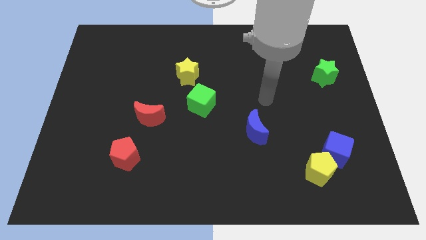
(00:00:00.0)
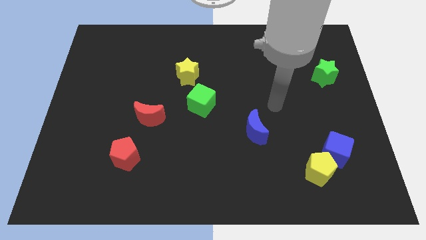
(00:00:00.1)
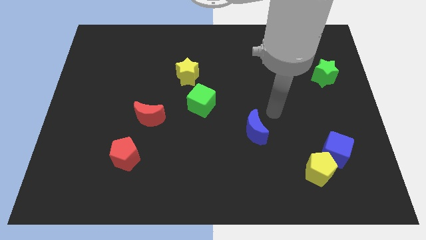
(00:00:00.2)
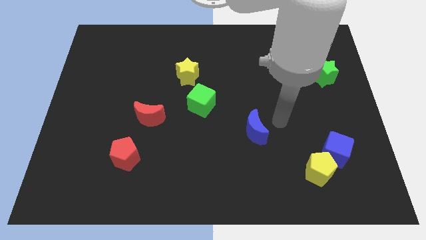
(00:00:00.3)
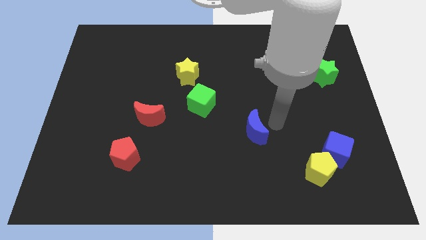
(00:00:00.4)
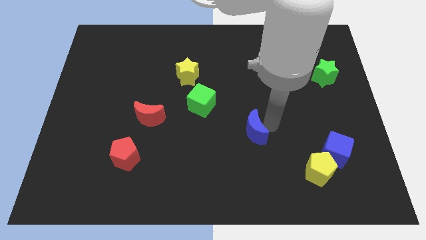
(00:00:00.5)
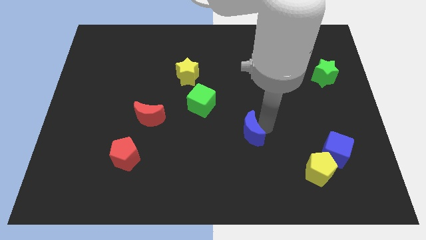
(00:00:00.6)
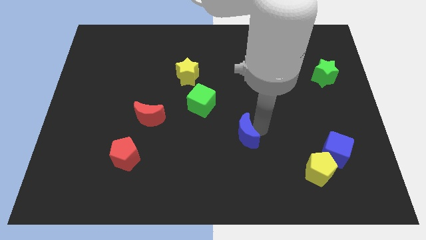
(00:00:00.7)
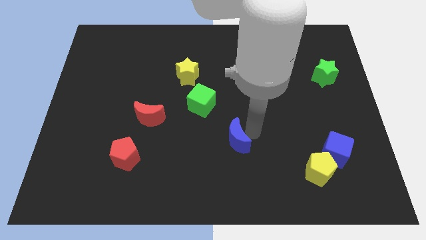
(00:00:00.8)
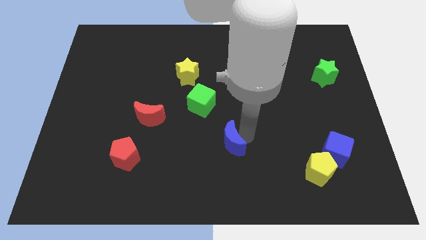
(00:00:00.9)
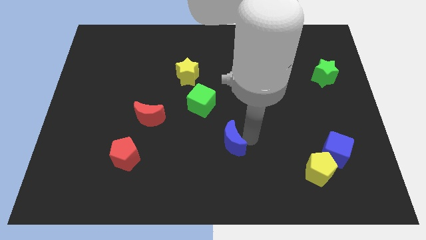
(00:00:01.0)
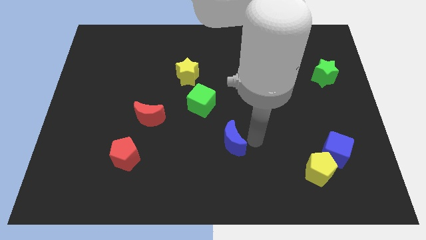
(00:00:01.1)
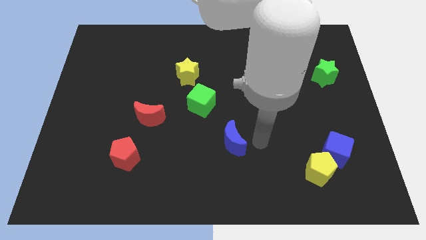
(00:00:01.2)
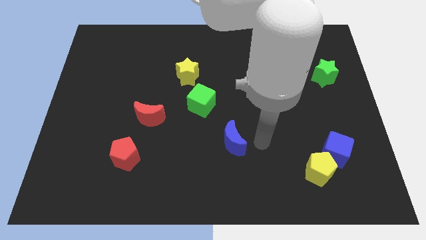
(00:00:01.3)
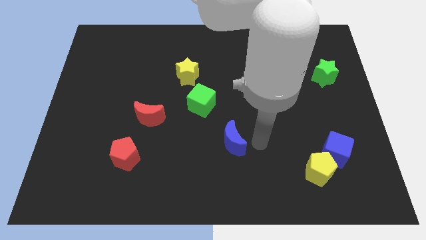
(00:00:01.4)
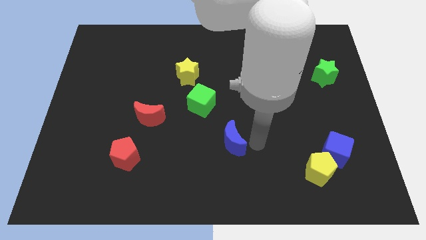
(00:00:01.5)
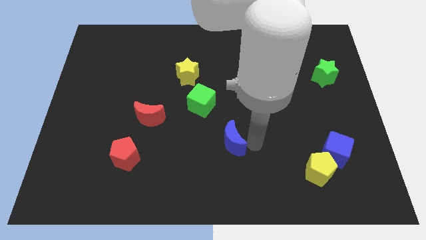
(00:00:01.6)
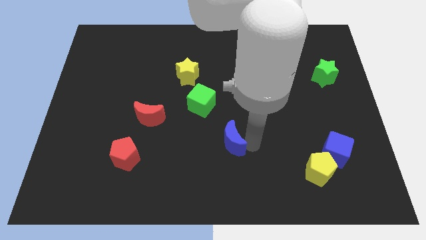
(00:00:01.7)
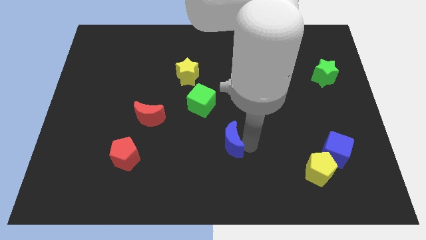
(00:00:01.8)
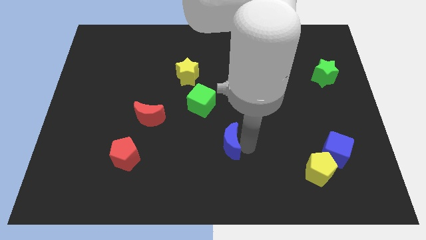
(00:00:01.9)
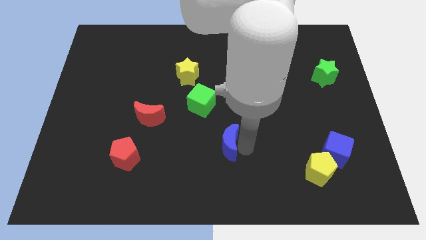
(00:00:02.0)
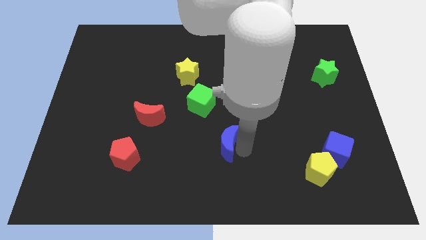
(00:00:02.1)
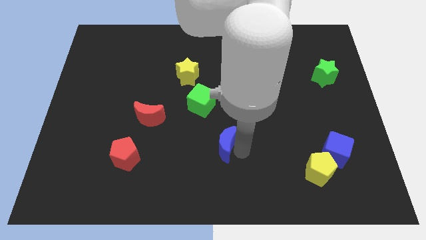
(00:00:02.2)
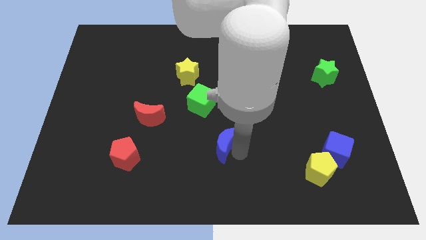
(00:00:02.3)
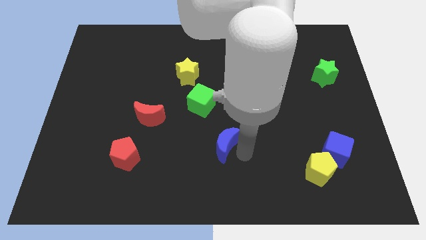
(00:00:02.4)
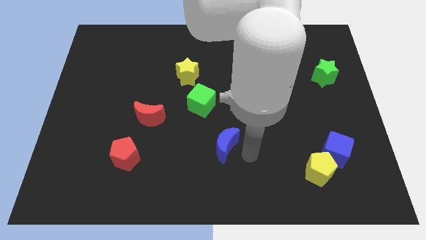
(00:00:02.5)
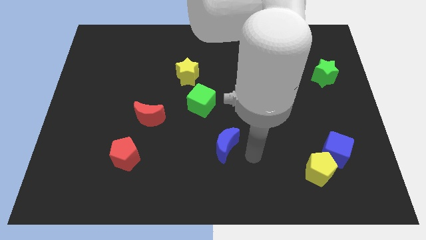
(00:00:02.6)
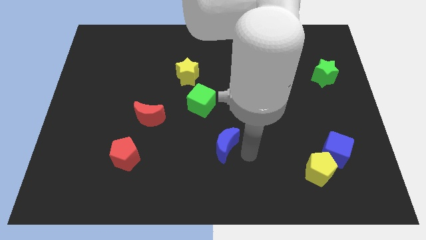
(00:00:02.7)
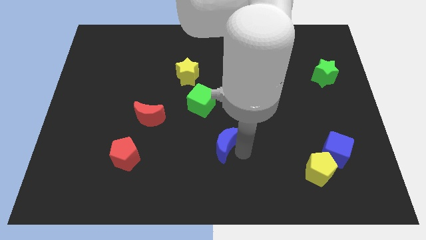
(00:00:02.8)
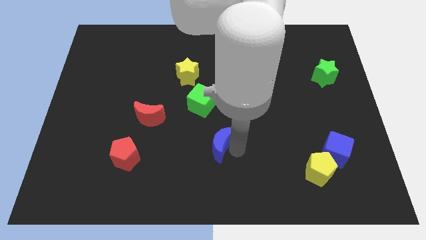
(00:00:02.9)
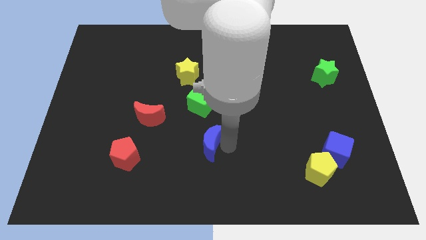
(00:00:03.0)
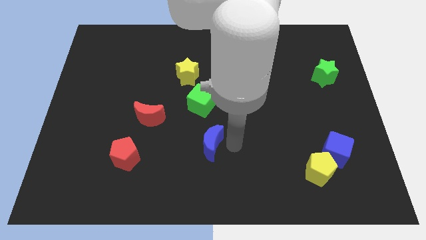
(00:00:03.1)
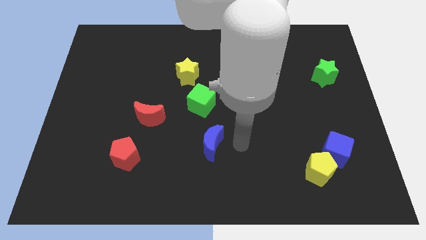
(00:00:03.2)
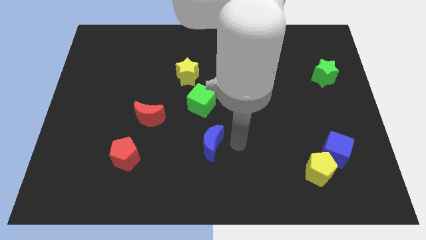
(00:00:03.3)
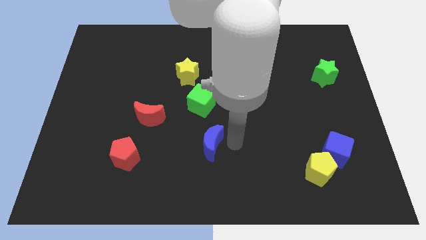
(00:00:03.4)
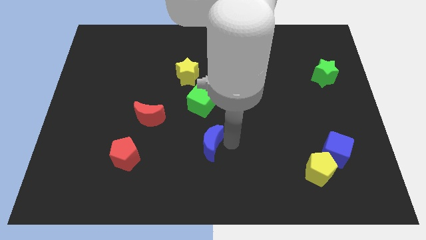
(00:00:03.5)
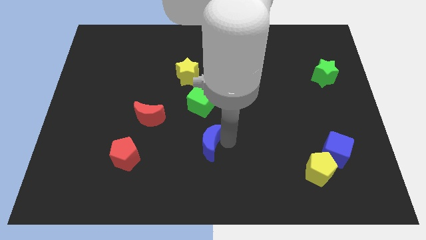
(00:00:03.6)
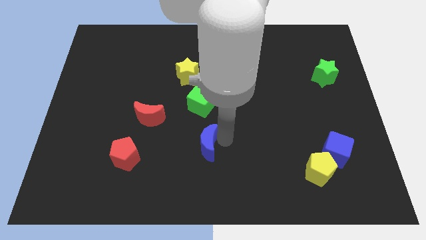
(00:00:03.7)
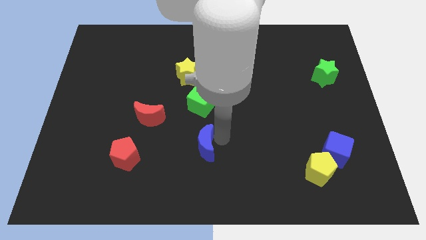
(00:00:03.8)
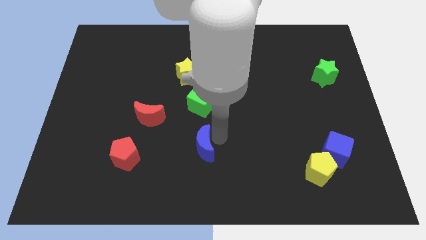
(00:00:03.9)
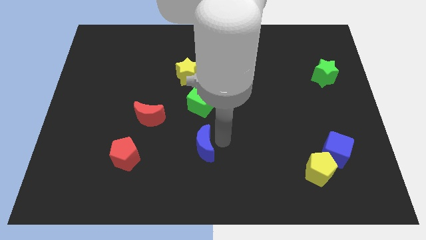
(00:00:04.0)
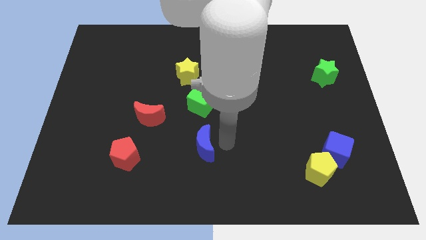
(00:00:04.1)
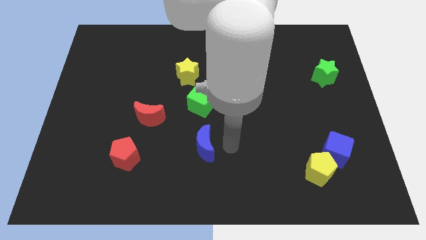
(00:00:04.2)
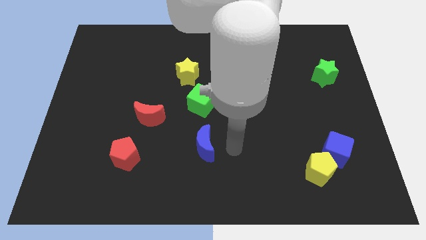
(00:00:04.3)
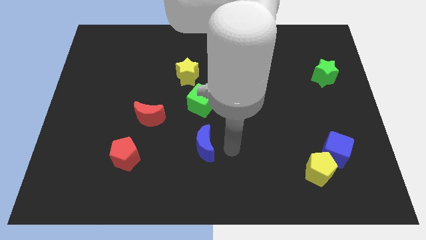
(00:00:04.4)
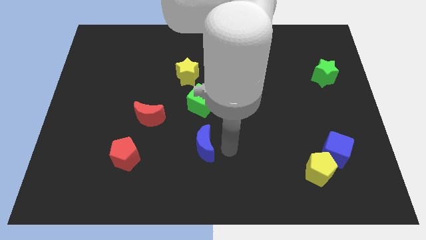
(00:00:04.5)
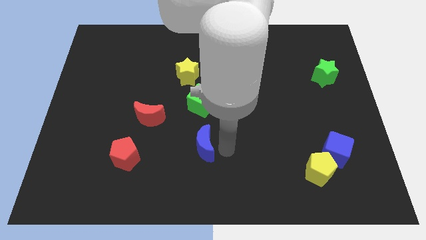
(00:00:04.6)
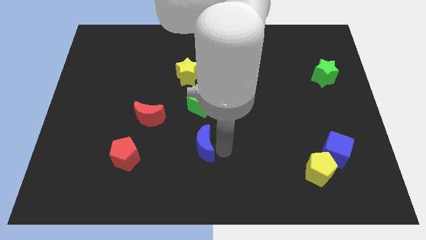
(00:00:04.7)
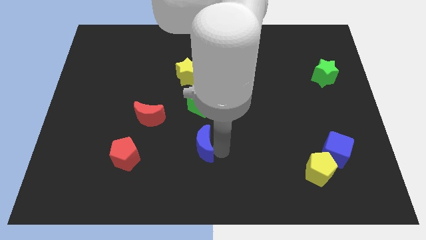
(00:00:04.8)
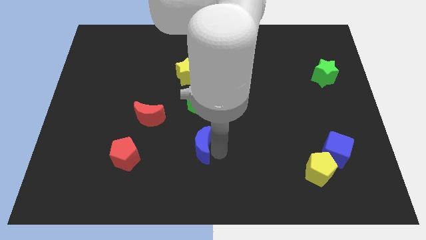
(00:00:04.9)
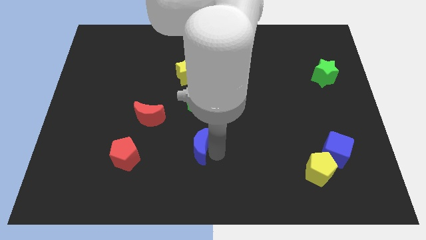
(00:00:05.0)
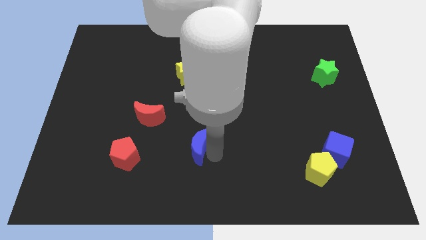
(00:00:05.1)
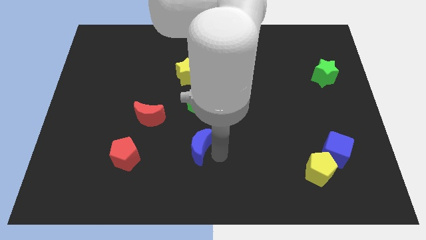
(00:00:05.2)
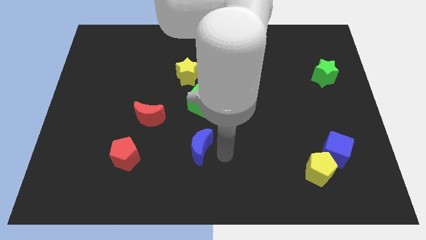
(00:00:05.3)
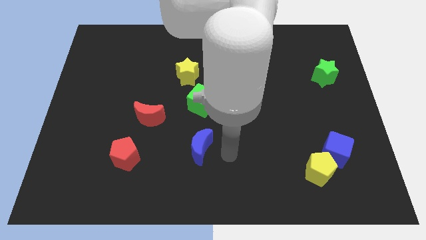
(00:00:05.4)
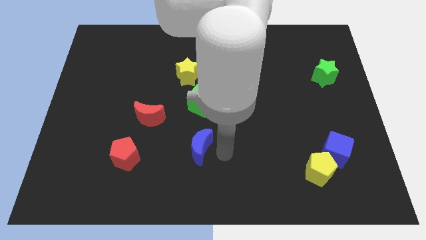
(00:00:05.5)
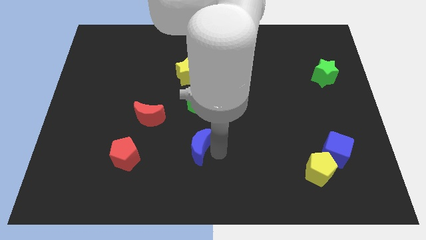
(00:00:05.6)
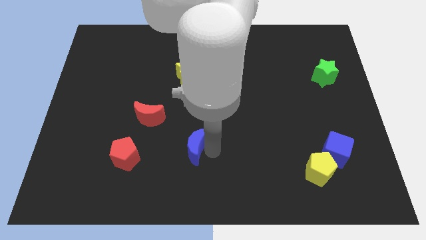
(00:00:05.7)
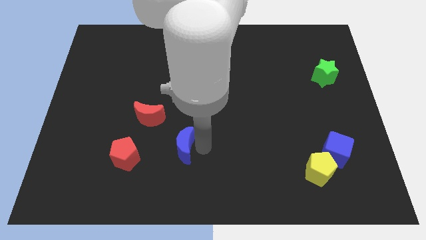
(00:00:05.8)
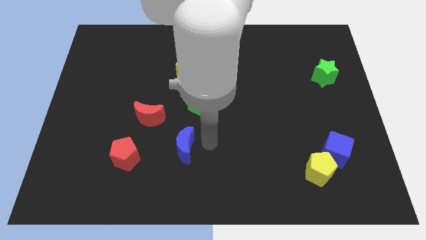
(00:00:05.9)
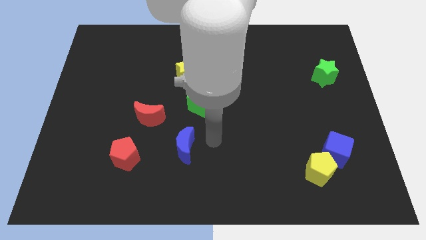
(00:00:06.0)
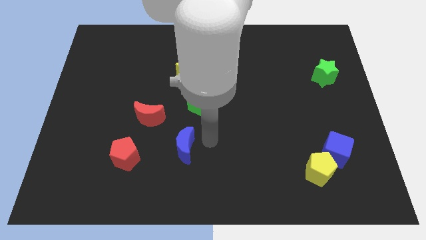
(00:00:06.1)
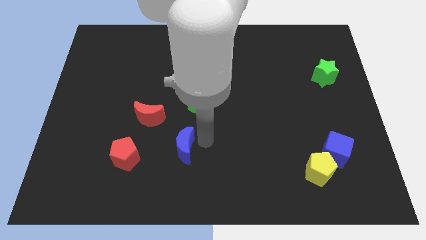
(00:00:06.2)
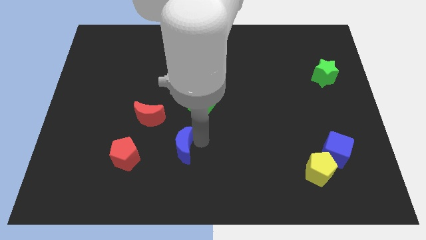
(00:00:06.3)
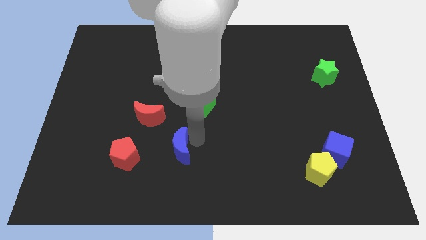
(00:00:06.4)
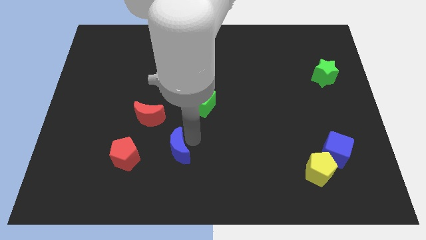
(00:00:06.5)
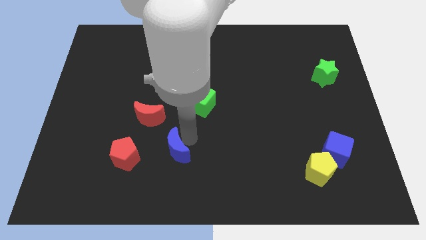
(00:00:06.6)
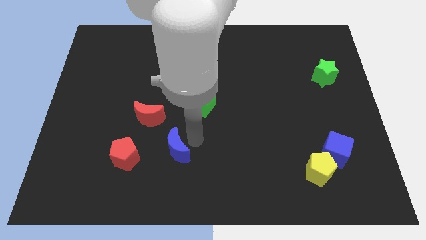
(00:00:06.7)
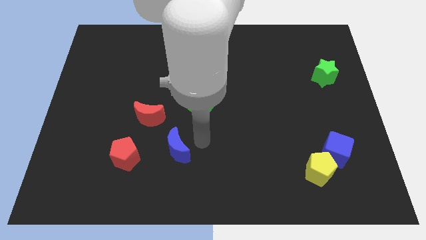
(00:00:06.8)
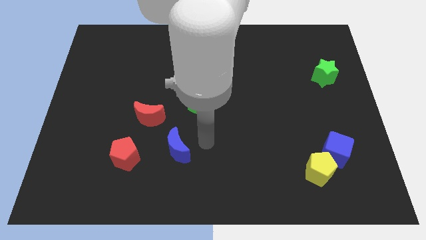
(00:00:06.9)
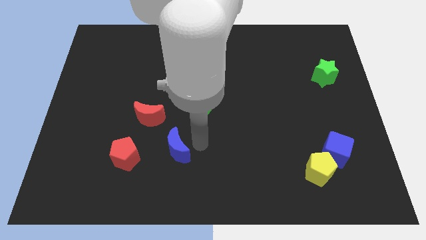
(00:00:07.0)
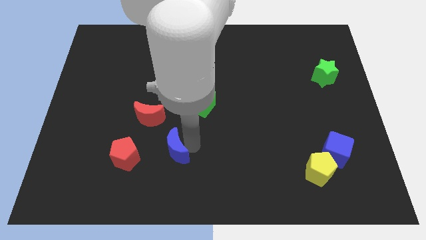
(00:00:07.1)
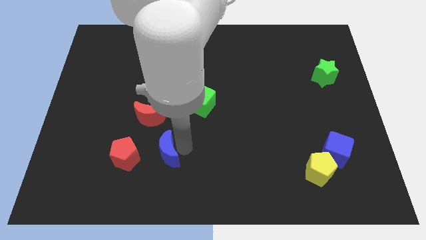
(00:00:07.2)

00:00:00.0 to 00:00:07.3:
slide the blue moon to the bottom side of the red moon
